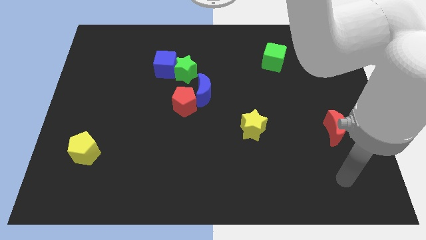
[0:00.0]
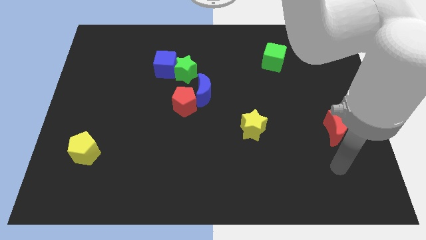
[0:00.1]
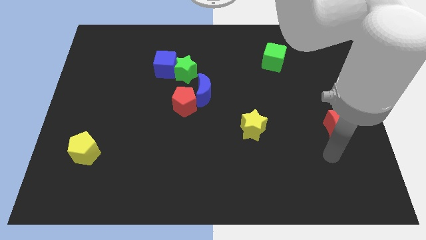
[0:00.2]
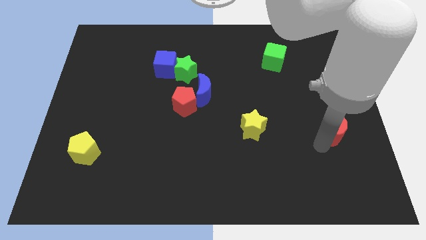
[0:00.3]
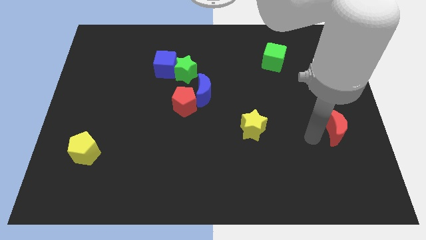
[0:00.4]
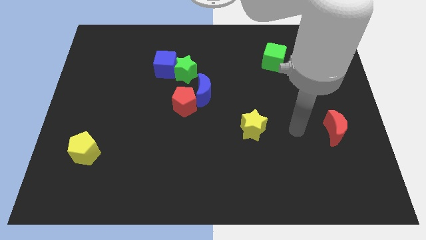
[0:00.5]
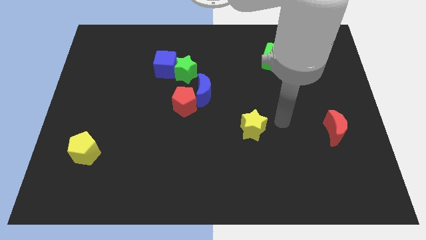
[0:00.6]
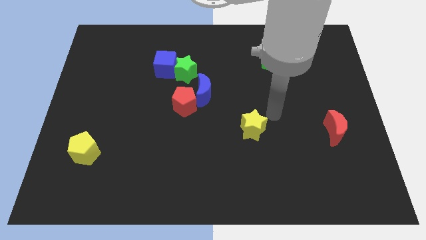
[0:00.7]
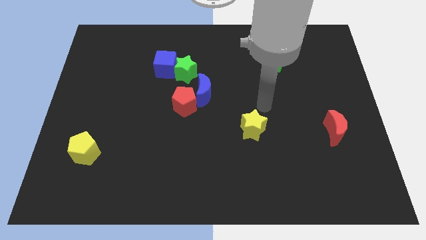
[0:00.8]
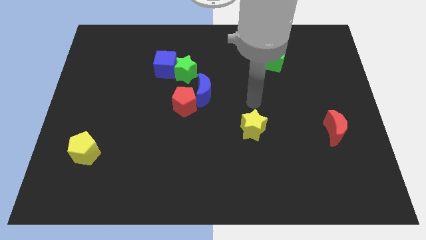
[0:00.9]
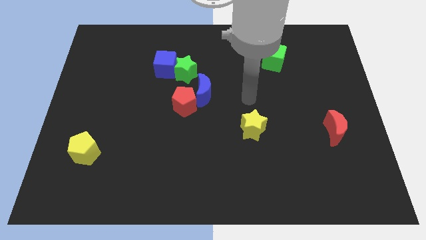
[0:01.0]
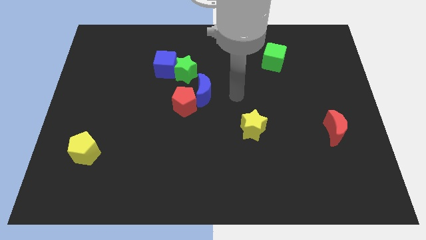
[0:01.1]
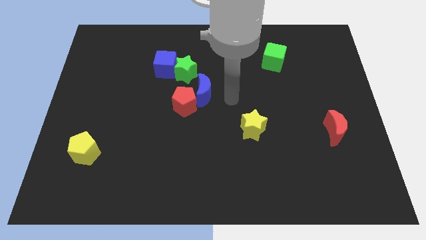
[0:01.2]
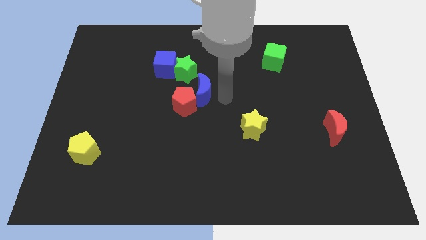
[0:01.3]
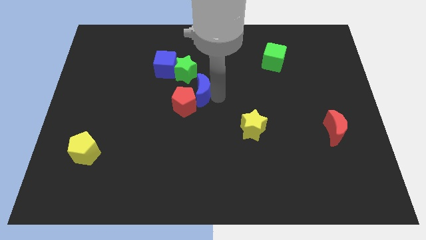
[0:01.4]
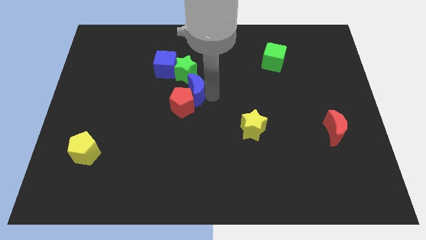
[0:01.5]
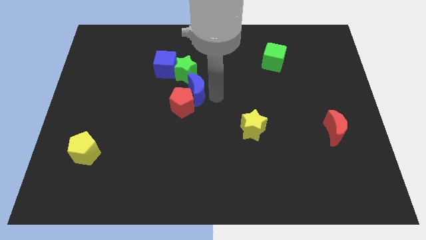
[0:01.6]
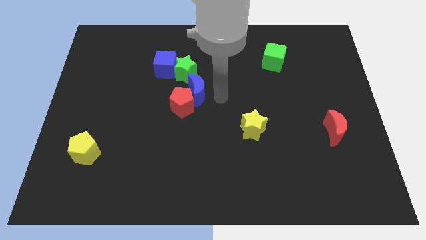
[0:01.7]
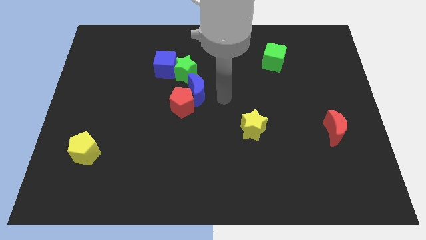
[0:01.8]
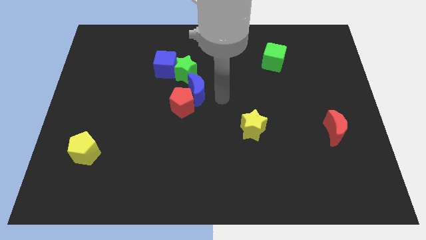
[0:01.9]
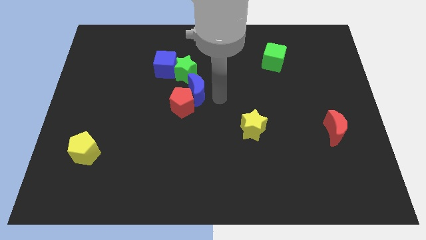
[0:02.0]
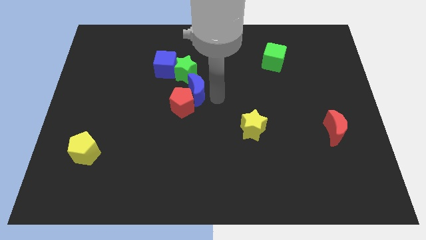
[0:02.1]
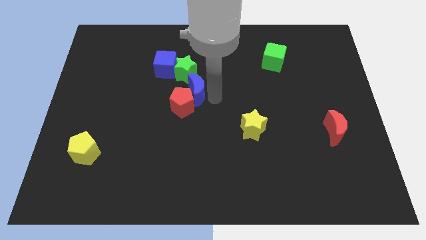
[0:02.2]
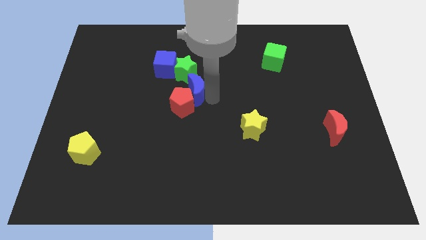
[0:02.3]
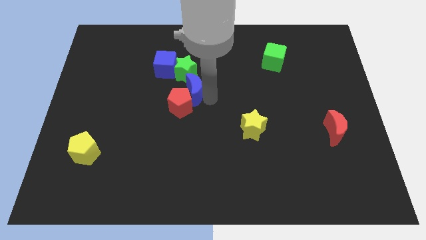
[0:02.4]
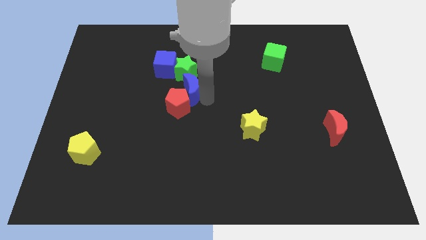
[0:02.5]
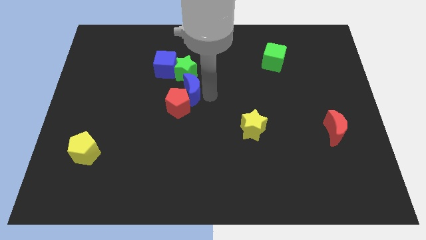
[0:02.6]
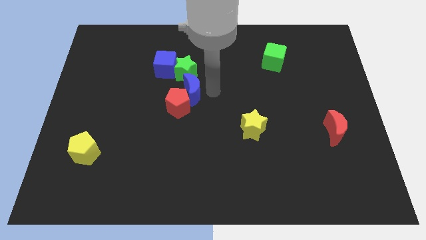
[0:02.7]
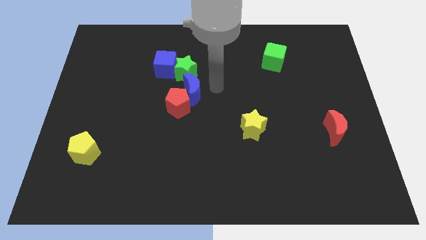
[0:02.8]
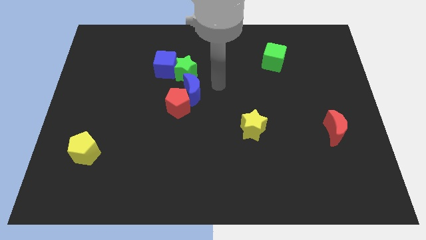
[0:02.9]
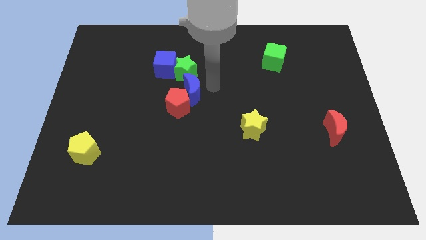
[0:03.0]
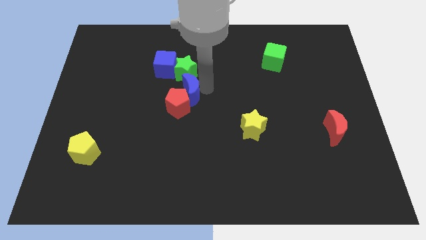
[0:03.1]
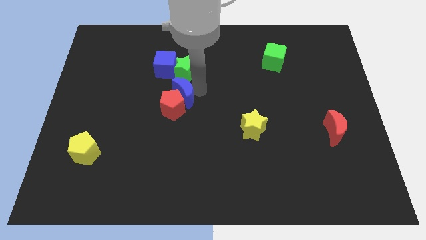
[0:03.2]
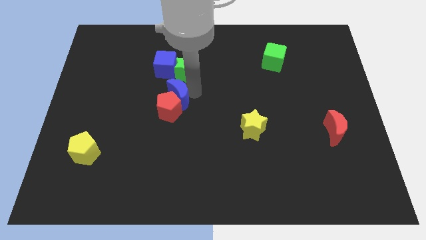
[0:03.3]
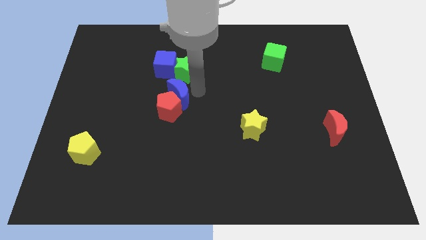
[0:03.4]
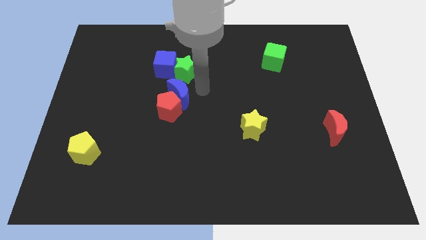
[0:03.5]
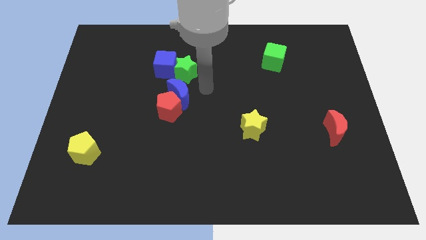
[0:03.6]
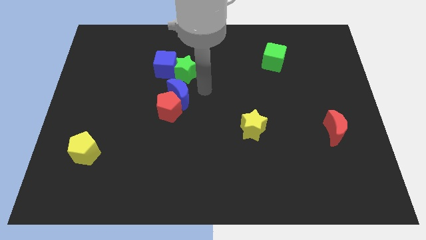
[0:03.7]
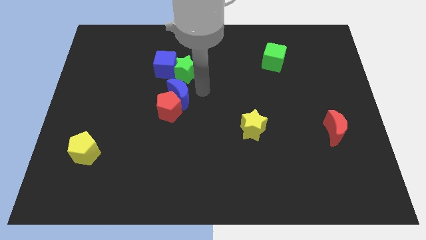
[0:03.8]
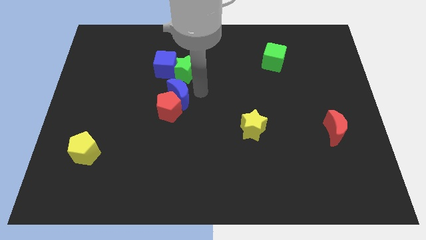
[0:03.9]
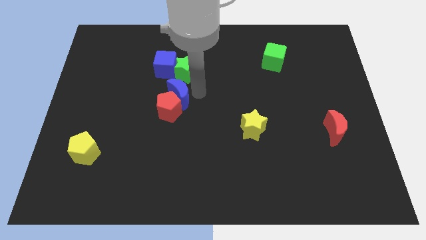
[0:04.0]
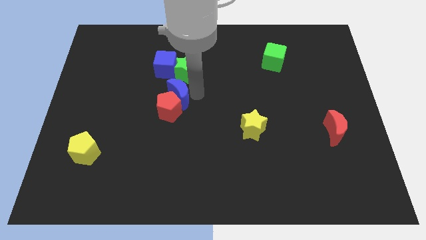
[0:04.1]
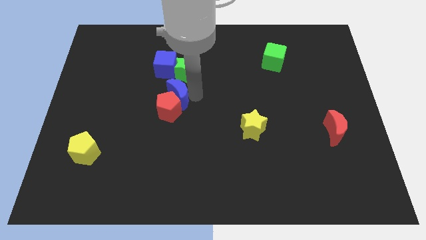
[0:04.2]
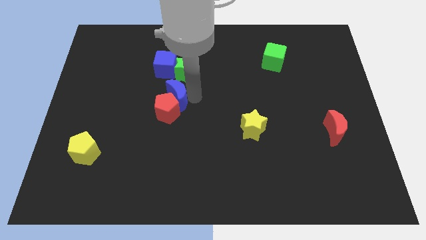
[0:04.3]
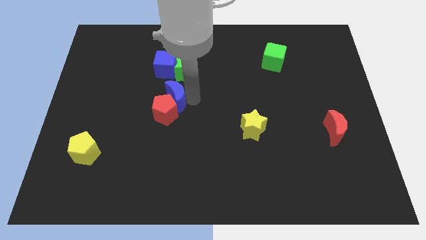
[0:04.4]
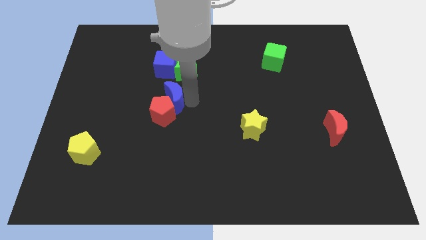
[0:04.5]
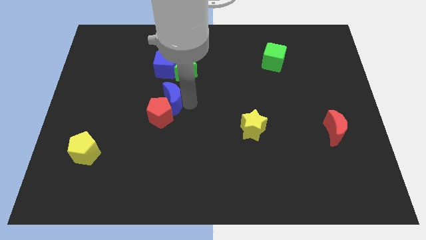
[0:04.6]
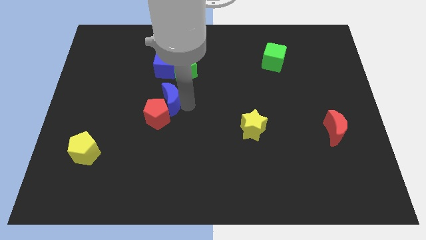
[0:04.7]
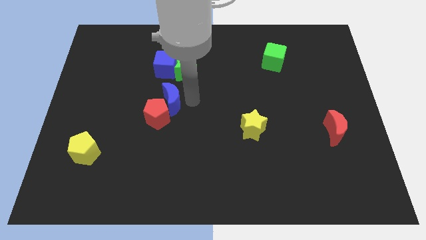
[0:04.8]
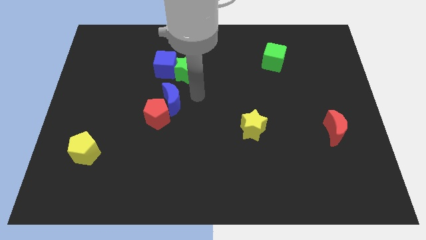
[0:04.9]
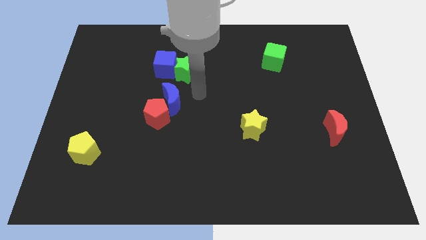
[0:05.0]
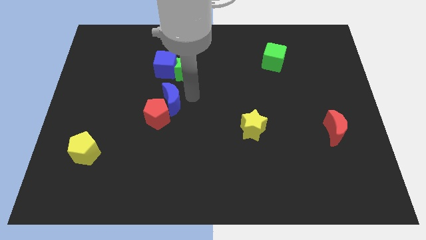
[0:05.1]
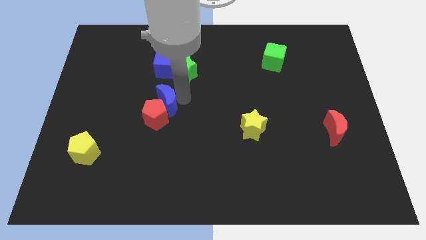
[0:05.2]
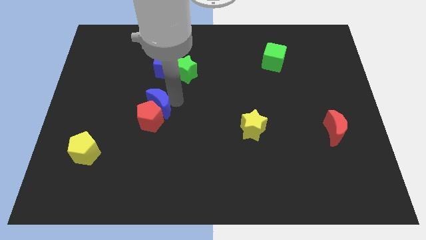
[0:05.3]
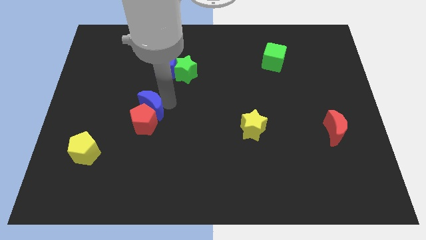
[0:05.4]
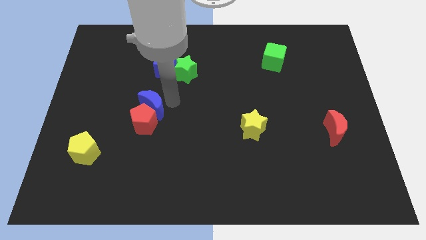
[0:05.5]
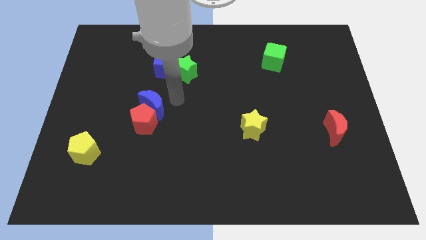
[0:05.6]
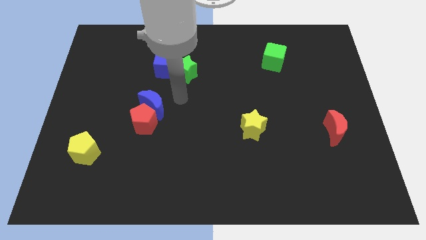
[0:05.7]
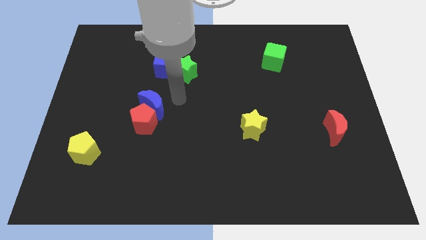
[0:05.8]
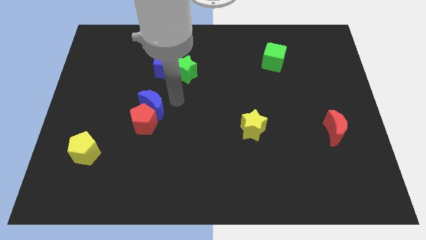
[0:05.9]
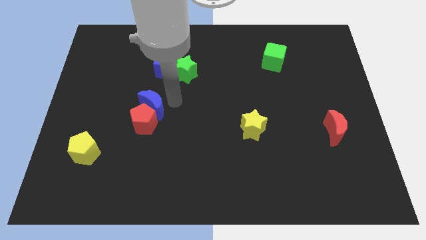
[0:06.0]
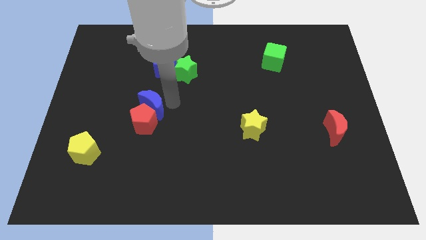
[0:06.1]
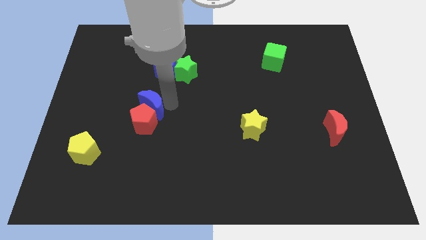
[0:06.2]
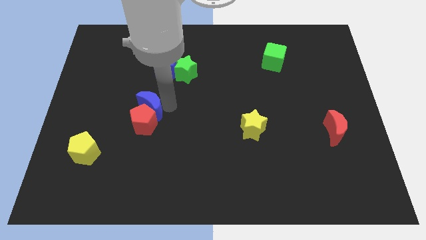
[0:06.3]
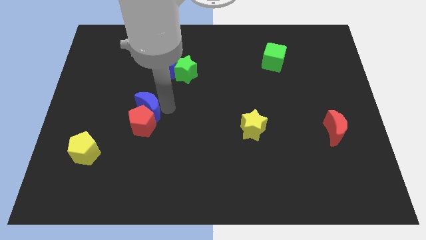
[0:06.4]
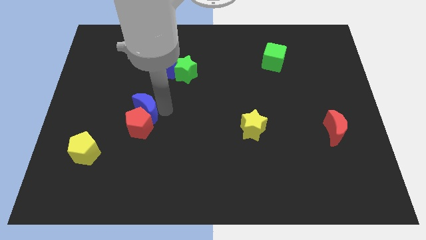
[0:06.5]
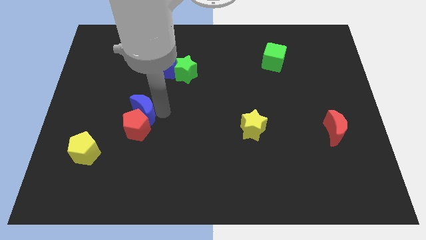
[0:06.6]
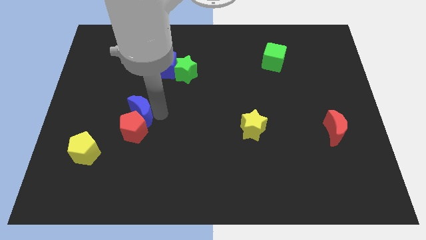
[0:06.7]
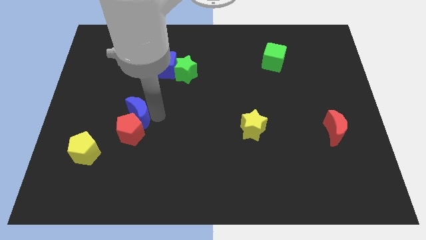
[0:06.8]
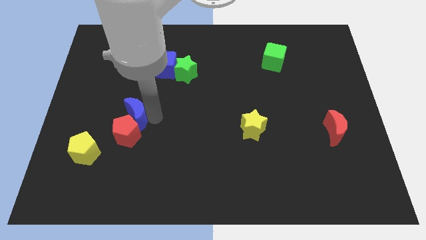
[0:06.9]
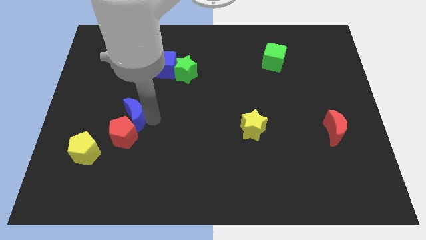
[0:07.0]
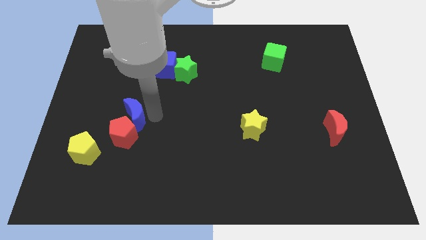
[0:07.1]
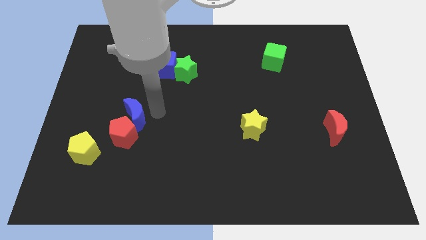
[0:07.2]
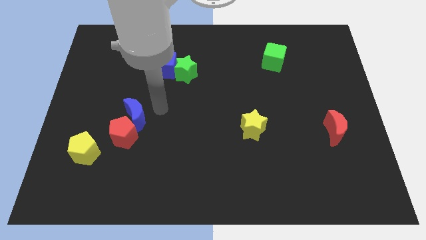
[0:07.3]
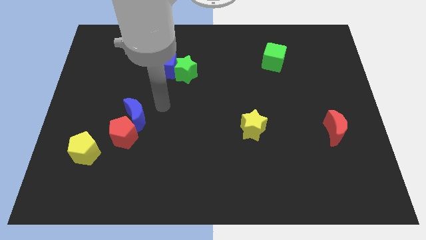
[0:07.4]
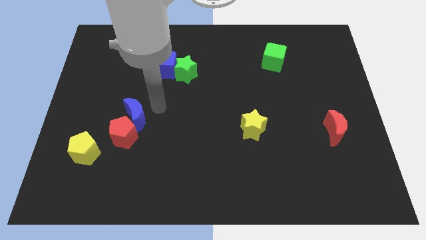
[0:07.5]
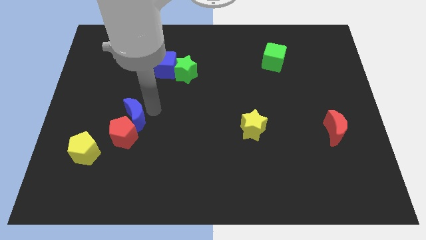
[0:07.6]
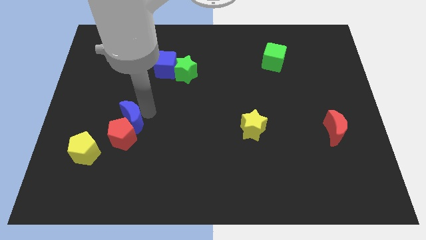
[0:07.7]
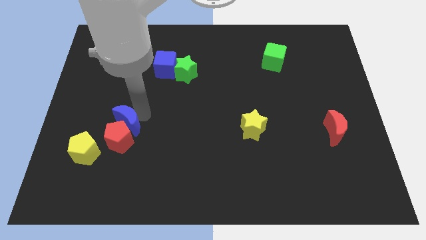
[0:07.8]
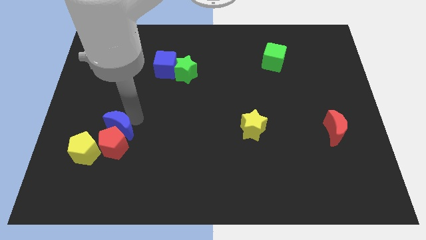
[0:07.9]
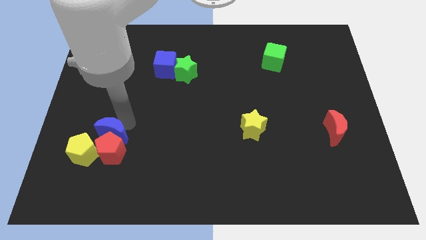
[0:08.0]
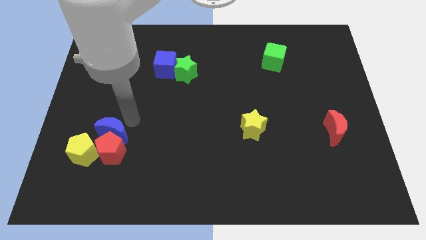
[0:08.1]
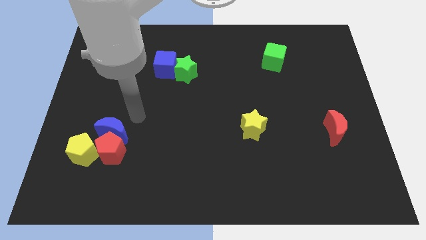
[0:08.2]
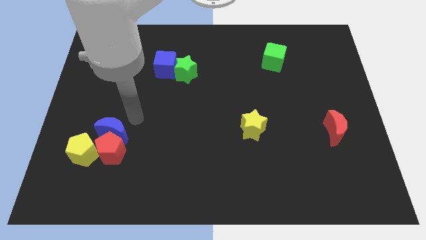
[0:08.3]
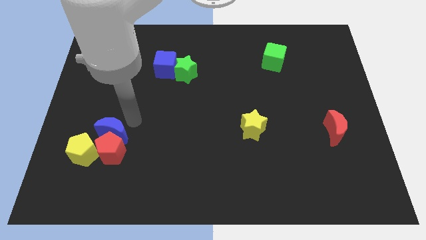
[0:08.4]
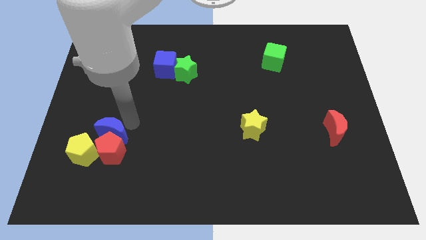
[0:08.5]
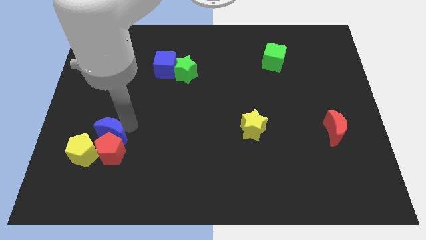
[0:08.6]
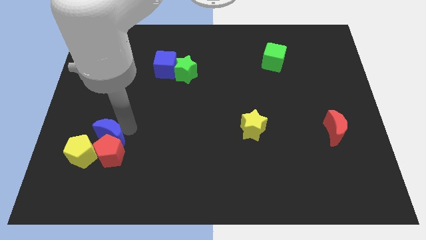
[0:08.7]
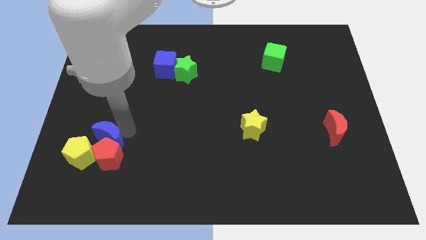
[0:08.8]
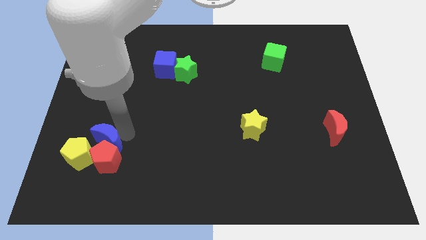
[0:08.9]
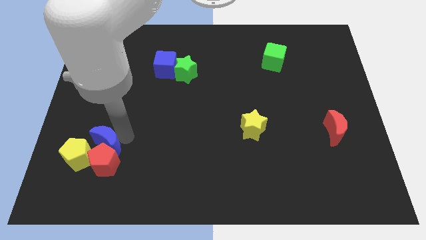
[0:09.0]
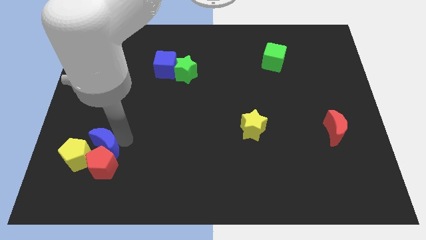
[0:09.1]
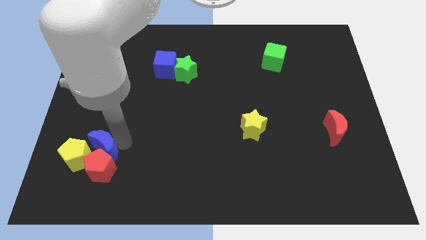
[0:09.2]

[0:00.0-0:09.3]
move the blue moon towards the yellow pentagon
